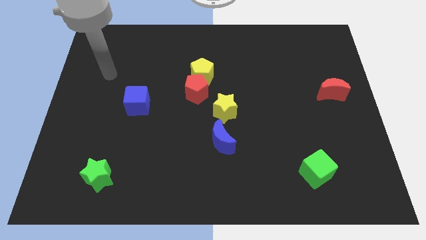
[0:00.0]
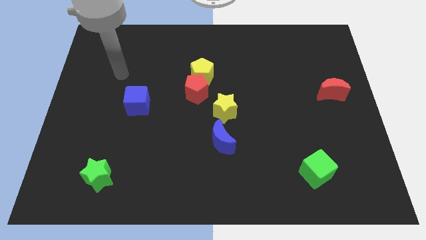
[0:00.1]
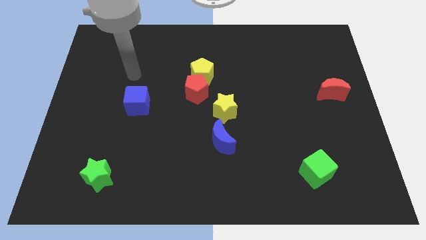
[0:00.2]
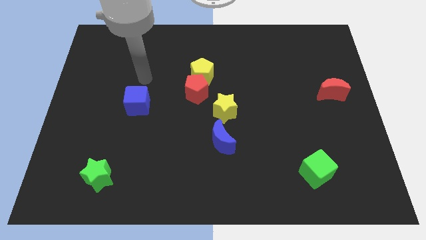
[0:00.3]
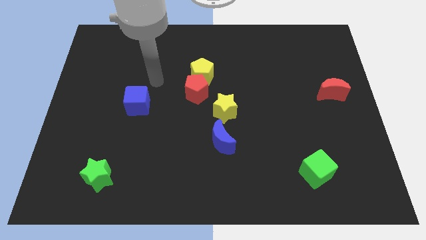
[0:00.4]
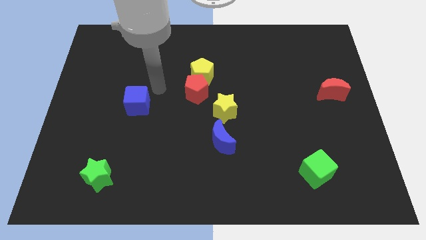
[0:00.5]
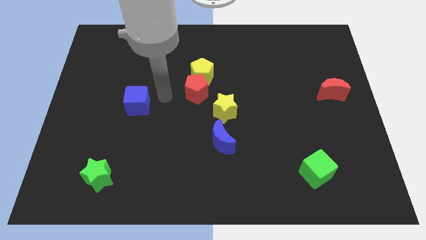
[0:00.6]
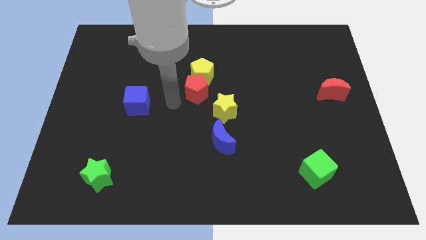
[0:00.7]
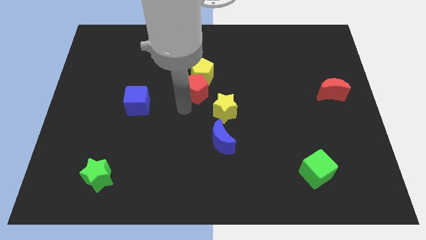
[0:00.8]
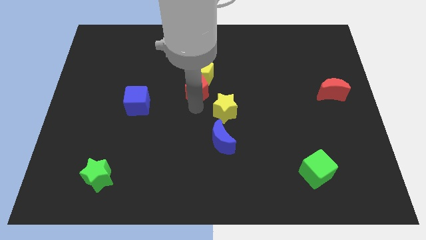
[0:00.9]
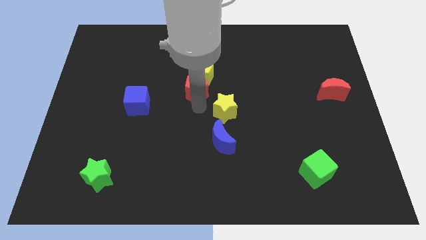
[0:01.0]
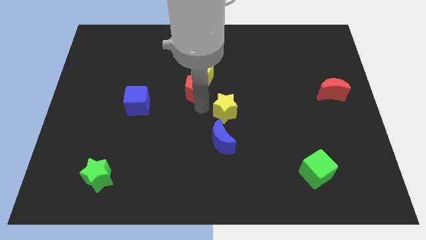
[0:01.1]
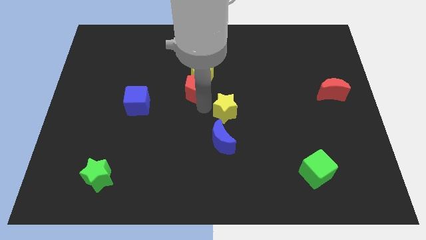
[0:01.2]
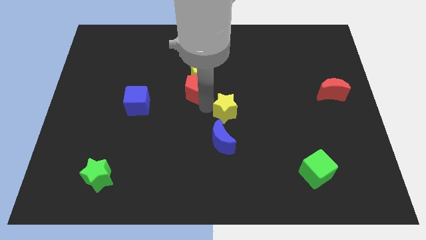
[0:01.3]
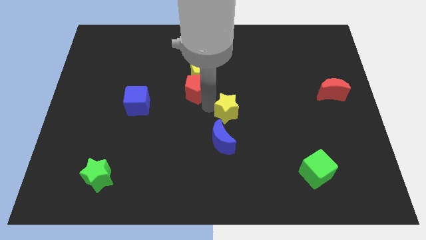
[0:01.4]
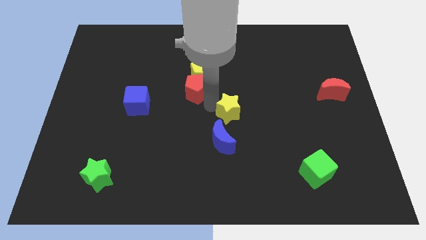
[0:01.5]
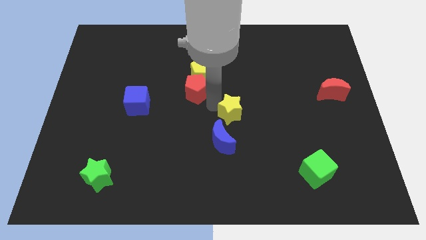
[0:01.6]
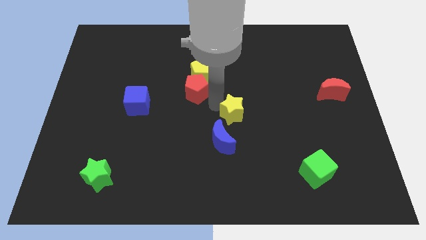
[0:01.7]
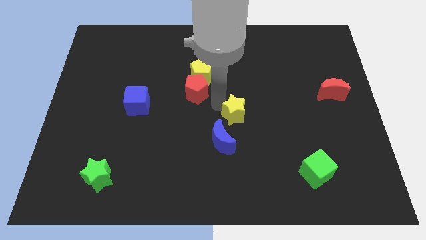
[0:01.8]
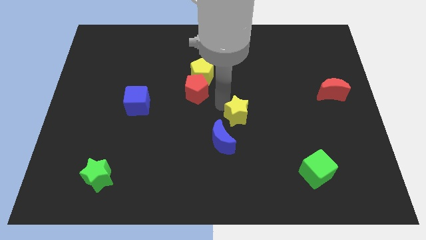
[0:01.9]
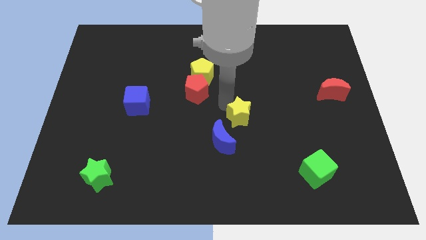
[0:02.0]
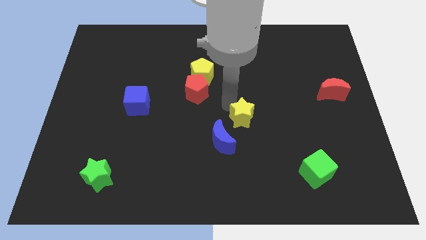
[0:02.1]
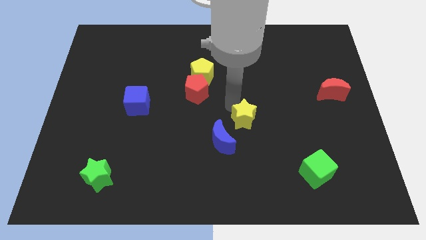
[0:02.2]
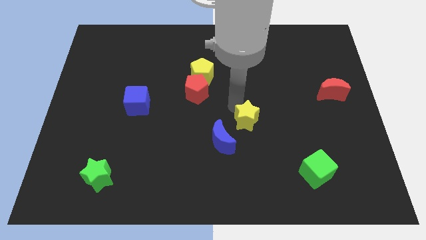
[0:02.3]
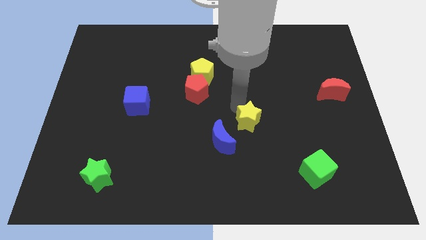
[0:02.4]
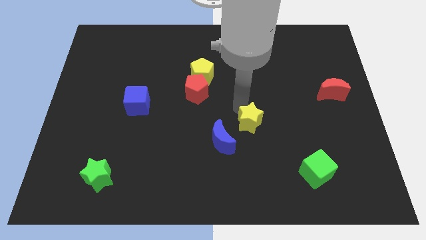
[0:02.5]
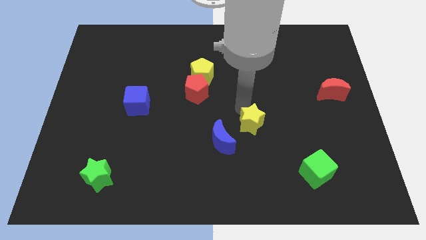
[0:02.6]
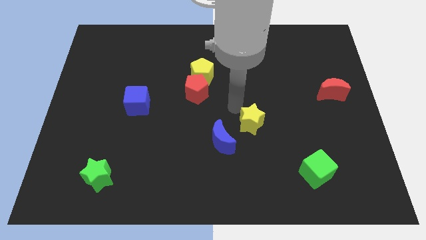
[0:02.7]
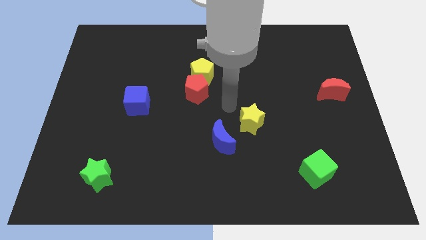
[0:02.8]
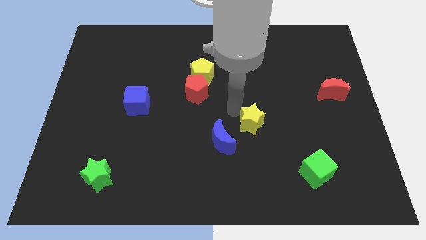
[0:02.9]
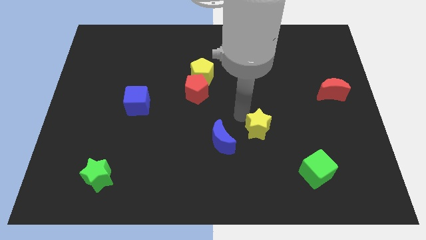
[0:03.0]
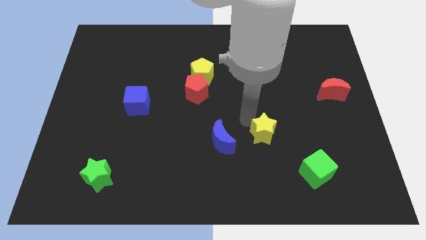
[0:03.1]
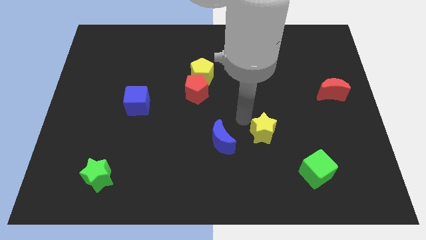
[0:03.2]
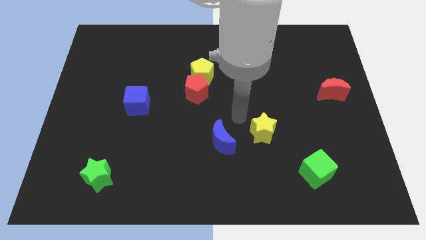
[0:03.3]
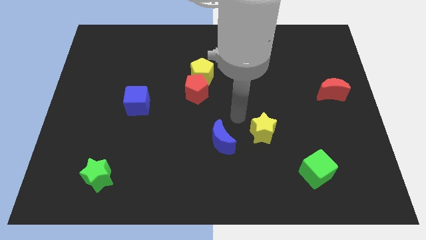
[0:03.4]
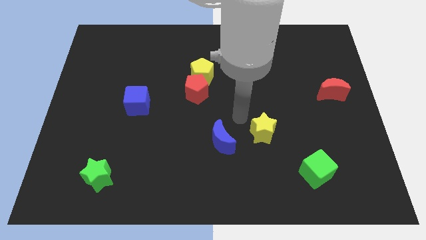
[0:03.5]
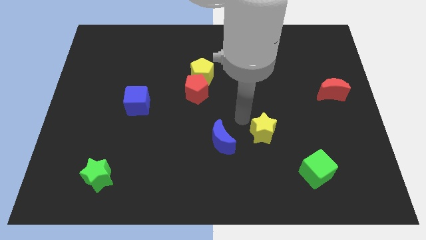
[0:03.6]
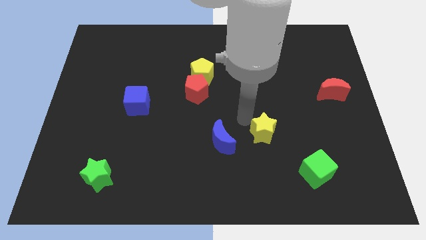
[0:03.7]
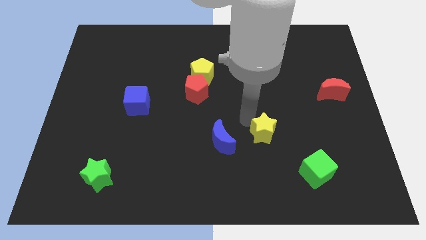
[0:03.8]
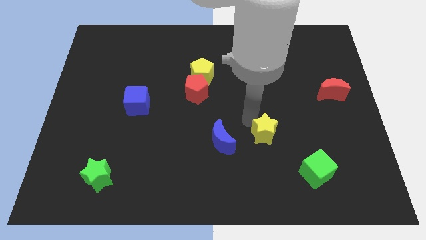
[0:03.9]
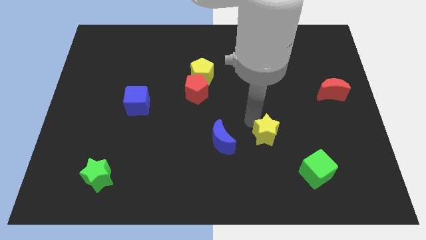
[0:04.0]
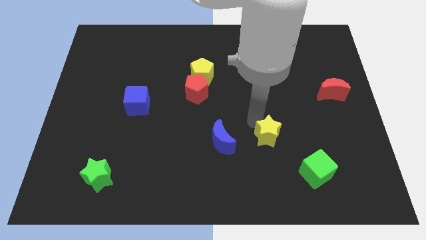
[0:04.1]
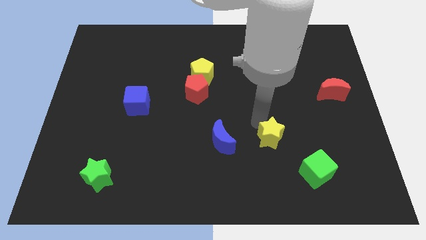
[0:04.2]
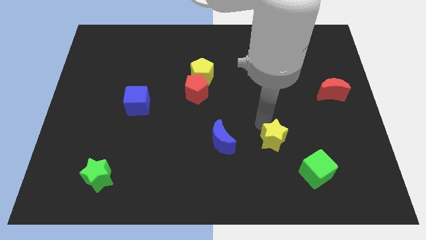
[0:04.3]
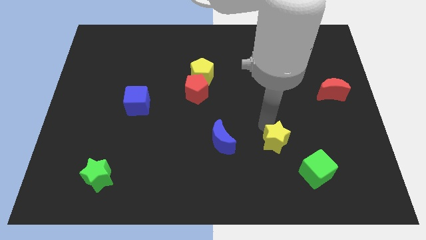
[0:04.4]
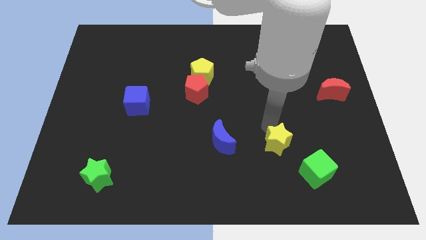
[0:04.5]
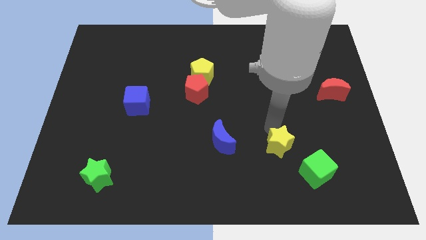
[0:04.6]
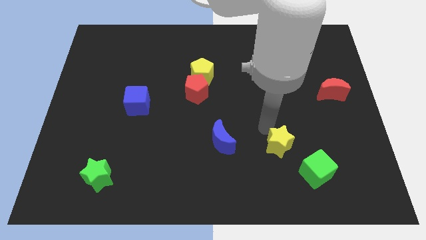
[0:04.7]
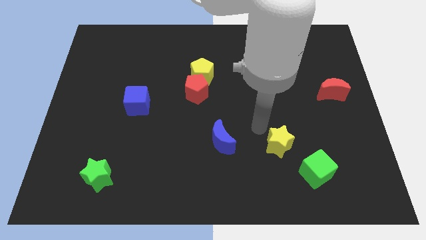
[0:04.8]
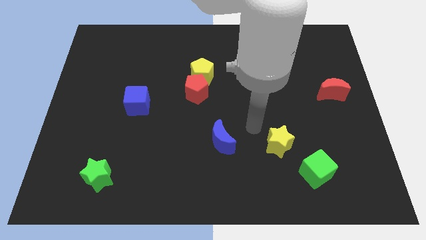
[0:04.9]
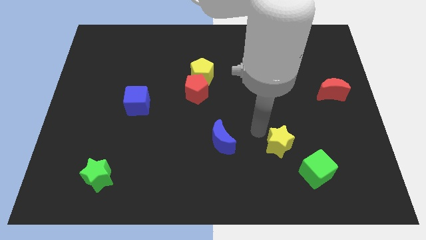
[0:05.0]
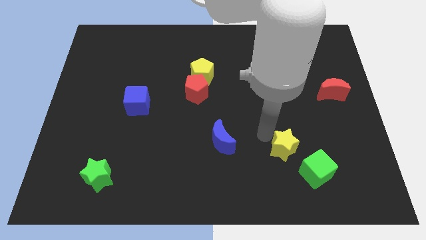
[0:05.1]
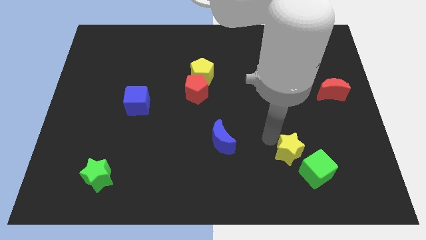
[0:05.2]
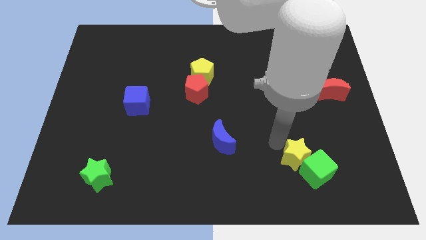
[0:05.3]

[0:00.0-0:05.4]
push the yellow star to the green cube
